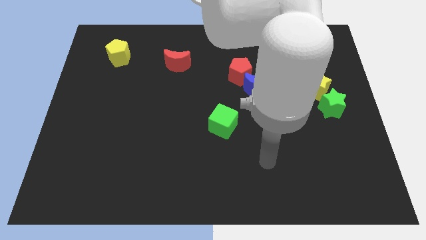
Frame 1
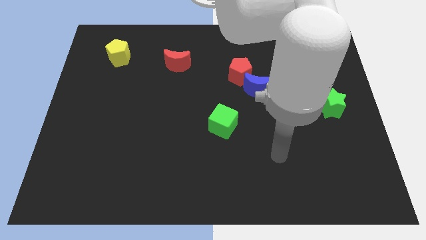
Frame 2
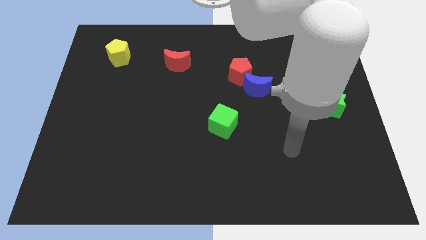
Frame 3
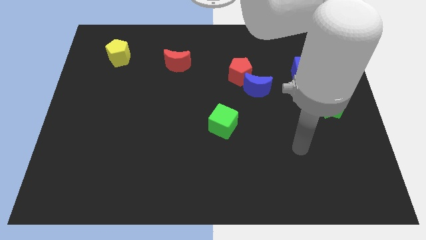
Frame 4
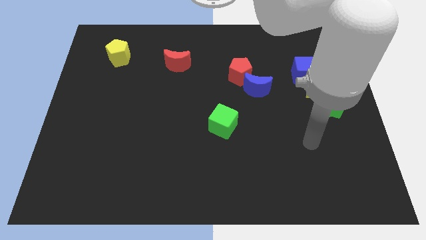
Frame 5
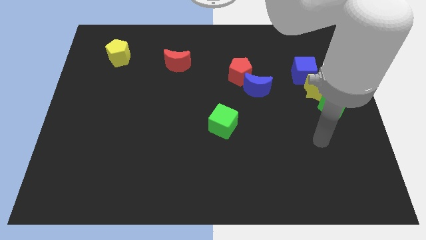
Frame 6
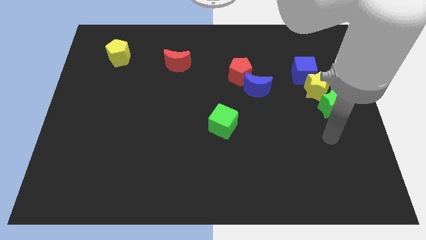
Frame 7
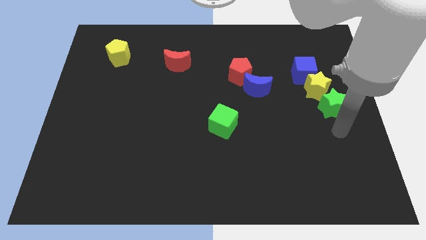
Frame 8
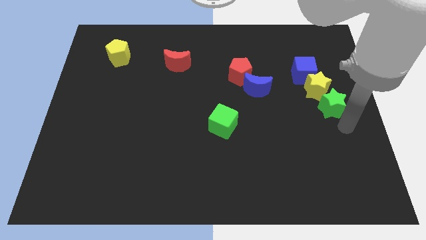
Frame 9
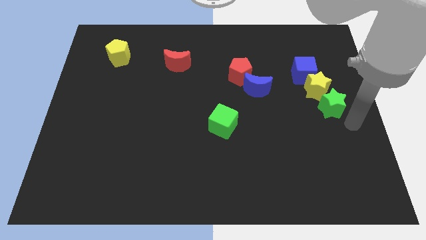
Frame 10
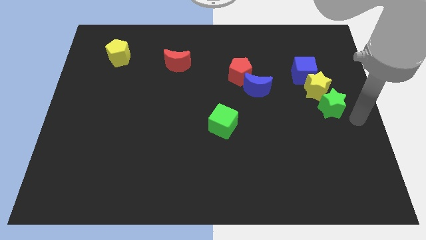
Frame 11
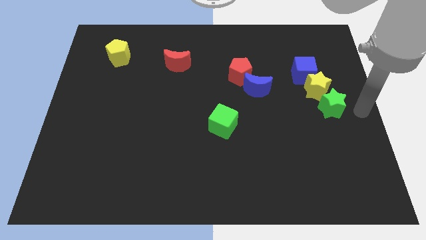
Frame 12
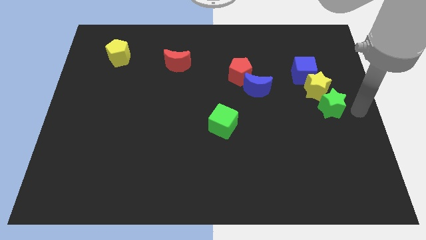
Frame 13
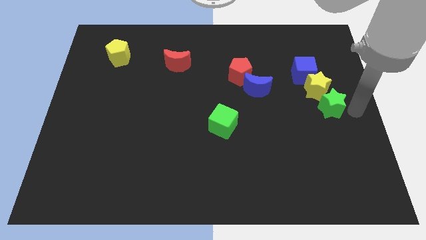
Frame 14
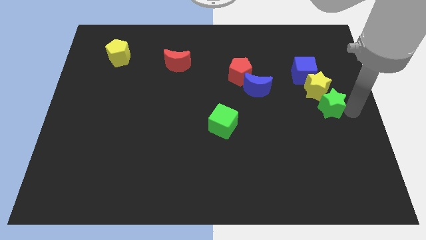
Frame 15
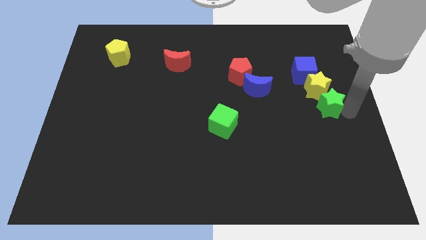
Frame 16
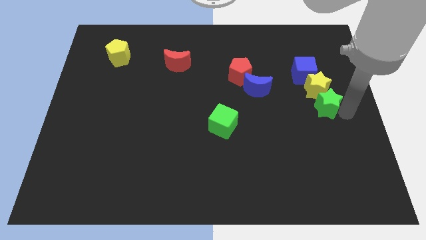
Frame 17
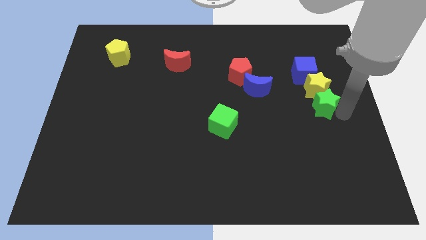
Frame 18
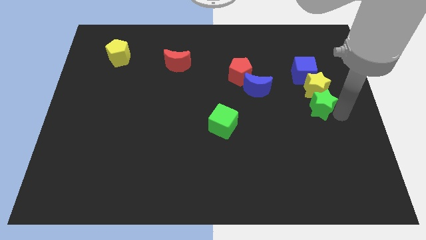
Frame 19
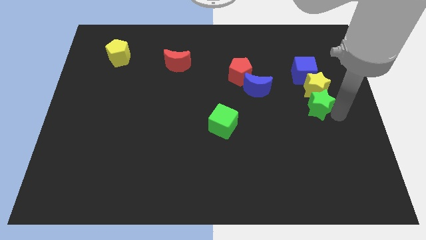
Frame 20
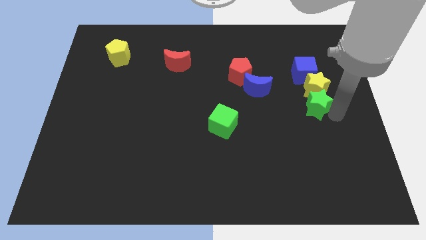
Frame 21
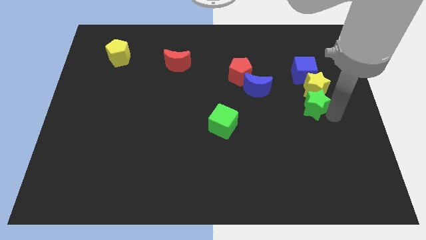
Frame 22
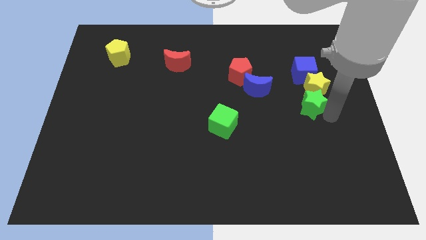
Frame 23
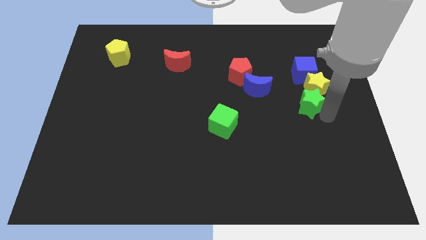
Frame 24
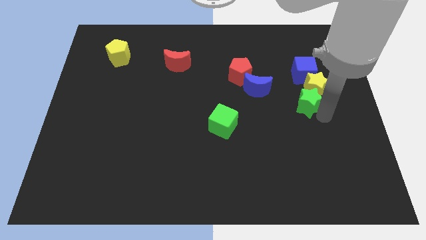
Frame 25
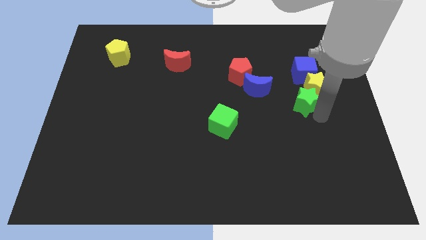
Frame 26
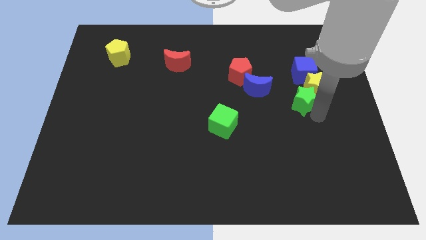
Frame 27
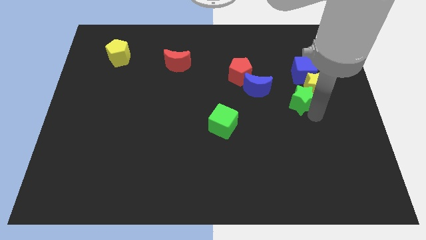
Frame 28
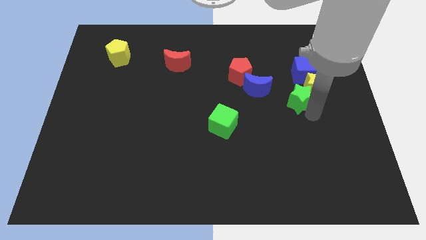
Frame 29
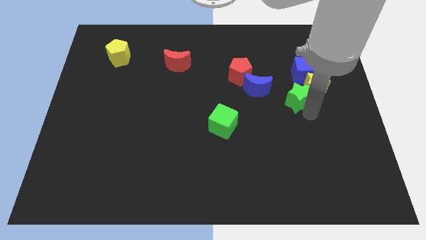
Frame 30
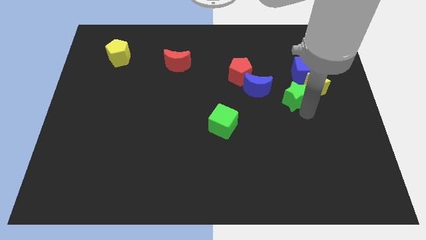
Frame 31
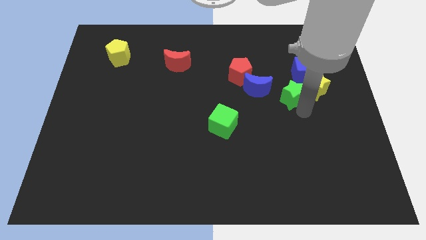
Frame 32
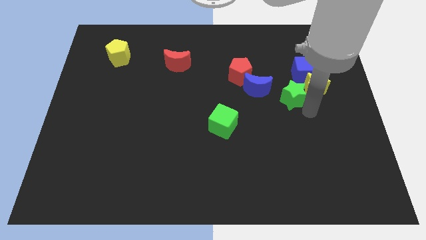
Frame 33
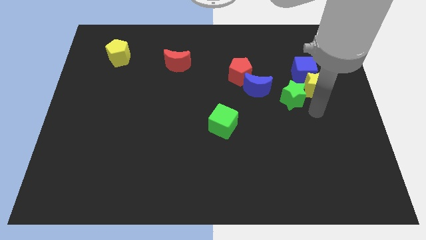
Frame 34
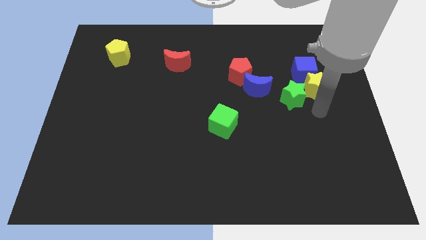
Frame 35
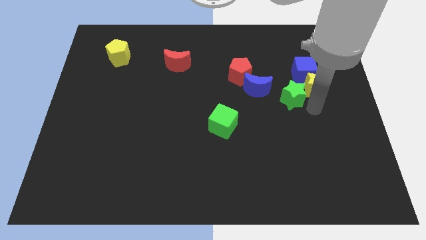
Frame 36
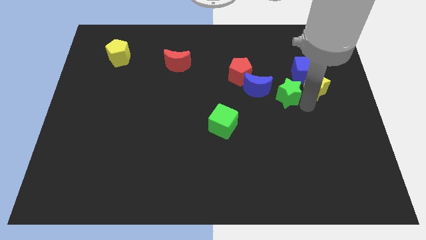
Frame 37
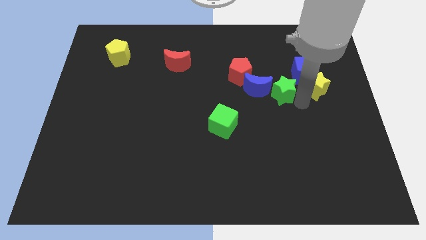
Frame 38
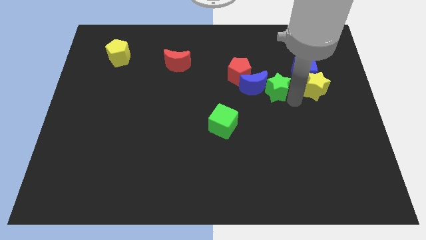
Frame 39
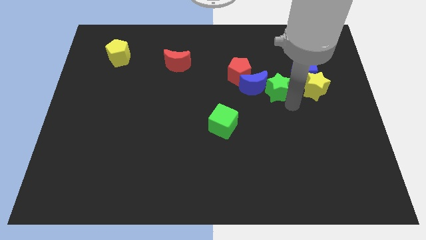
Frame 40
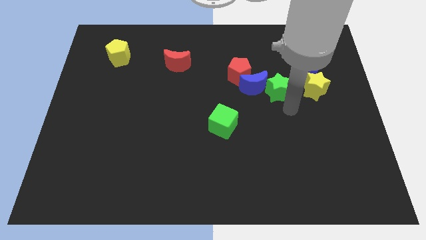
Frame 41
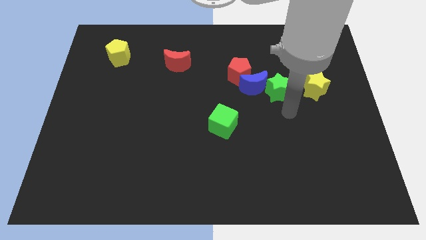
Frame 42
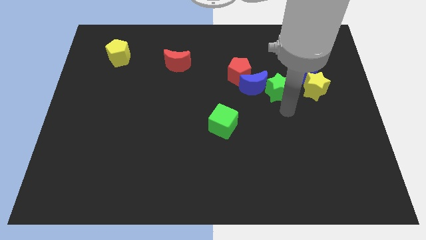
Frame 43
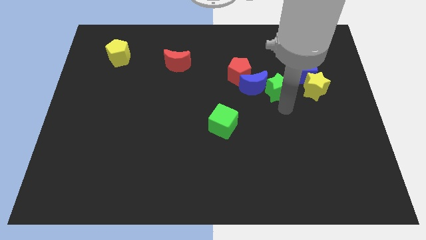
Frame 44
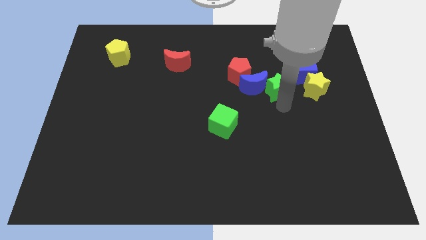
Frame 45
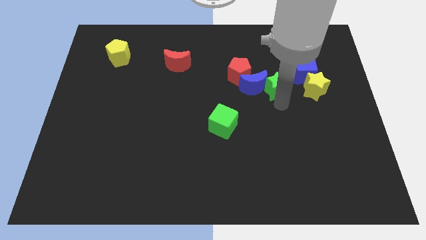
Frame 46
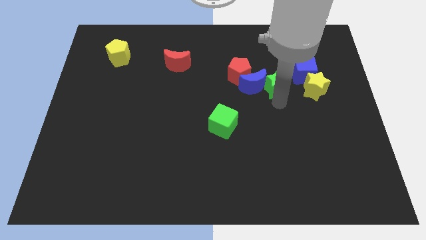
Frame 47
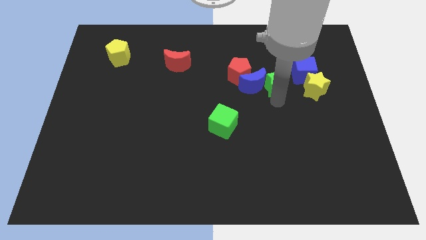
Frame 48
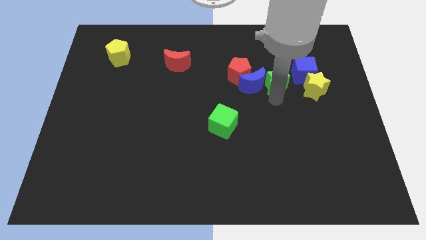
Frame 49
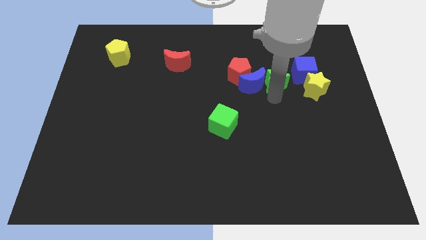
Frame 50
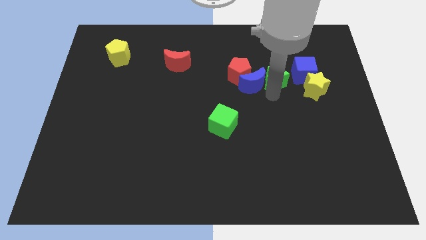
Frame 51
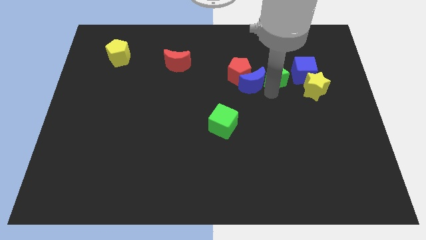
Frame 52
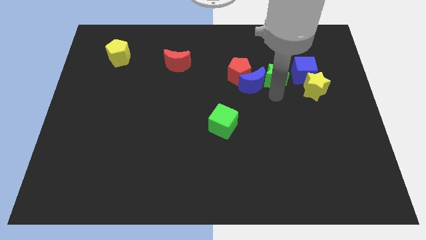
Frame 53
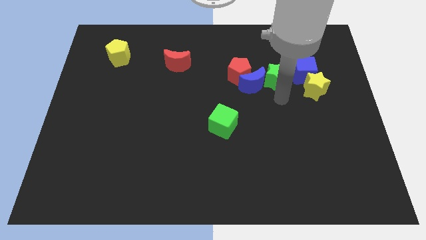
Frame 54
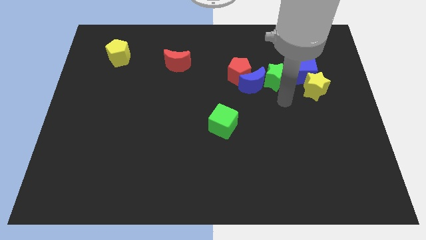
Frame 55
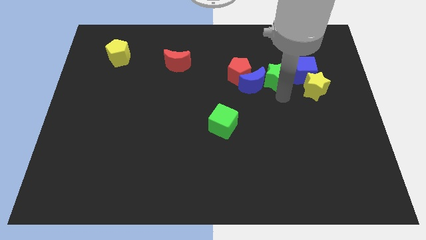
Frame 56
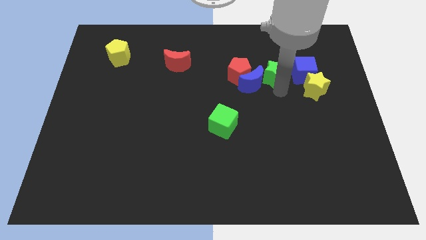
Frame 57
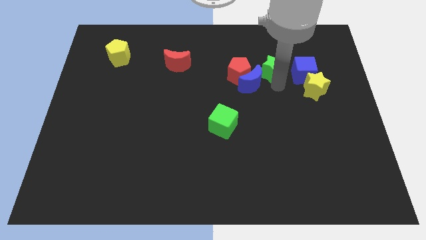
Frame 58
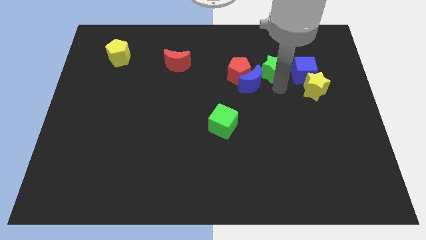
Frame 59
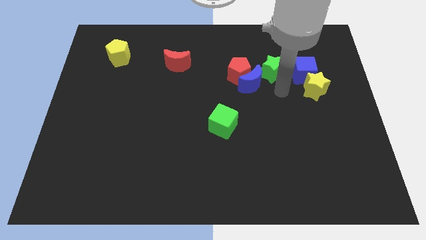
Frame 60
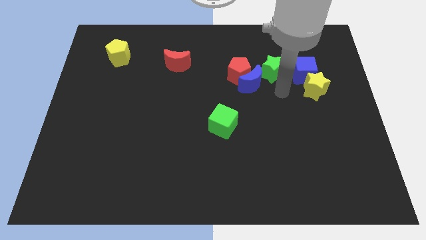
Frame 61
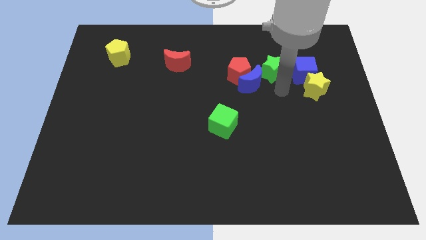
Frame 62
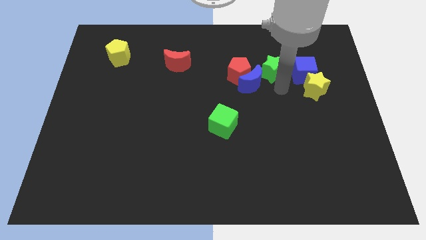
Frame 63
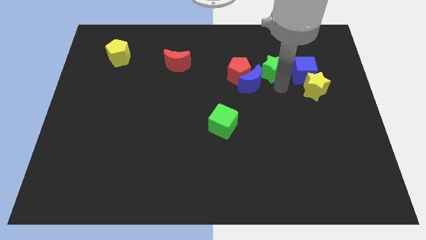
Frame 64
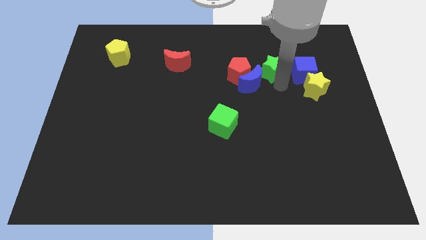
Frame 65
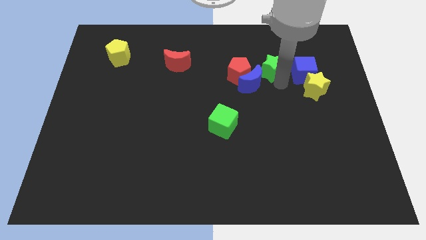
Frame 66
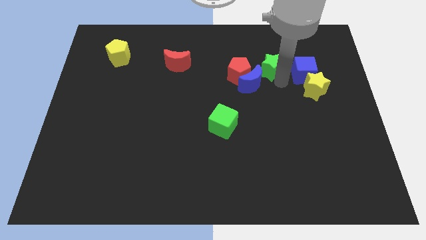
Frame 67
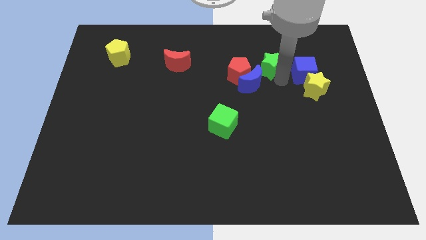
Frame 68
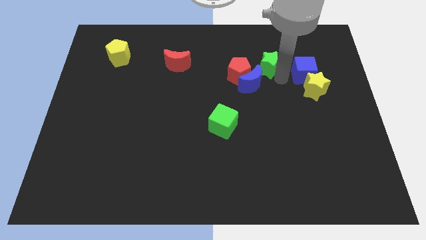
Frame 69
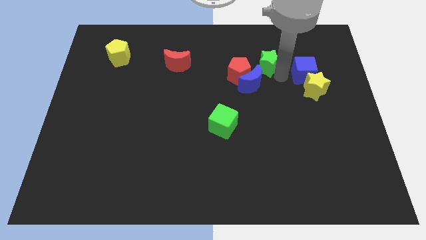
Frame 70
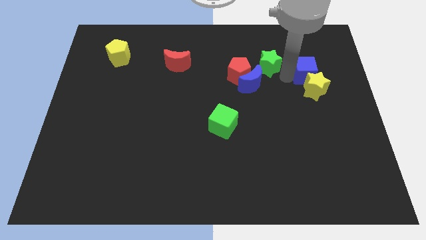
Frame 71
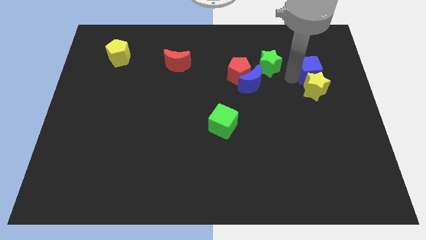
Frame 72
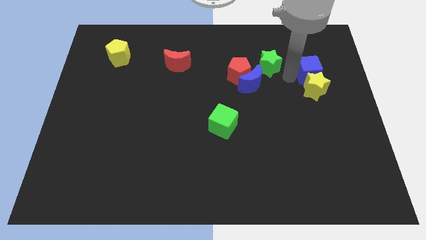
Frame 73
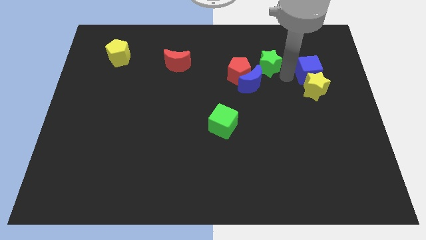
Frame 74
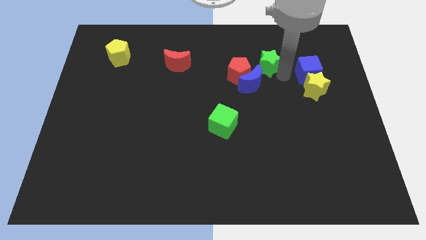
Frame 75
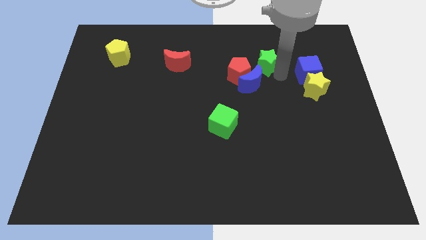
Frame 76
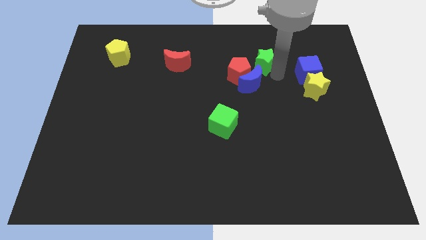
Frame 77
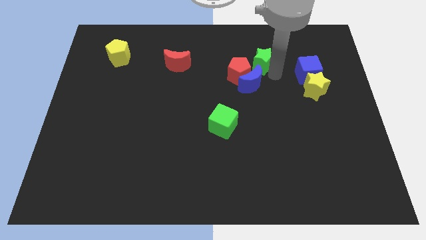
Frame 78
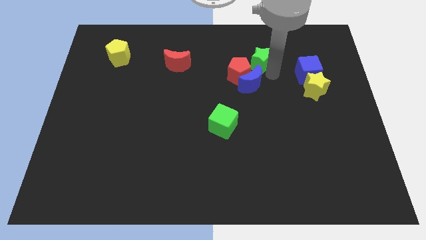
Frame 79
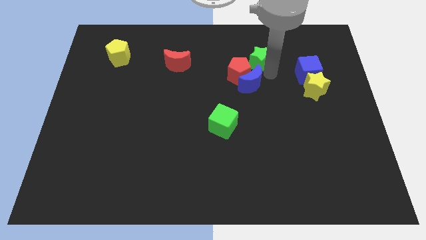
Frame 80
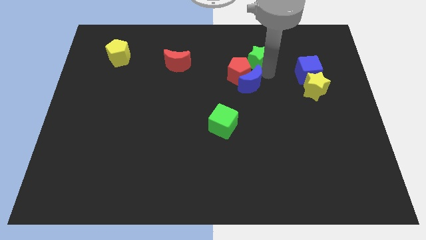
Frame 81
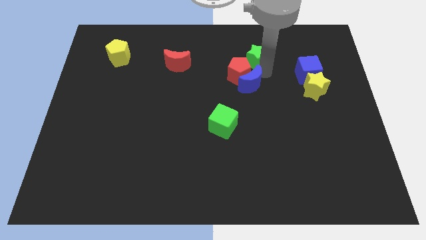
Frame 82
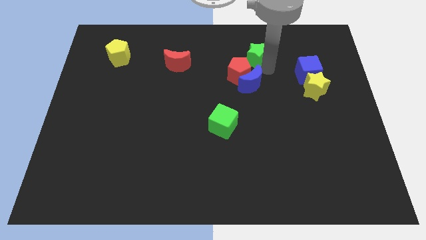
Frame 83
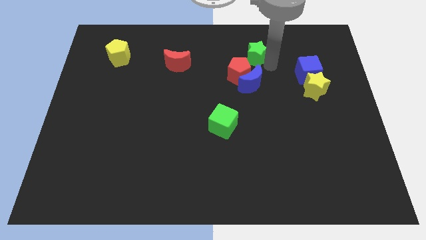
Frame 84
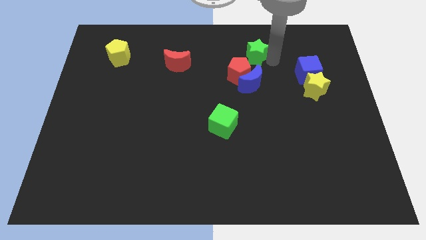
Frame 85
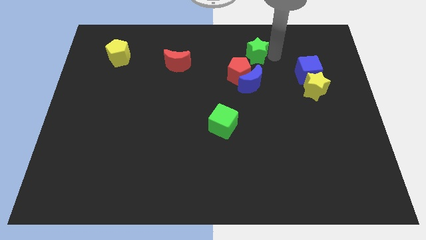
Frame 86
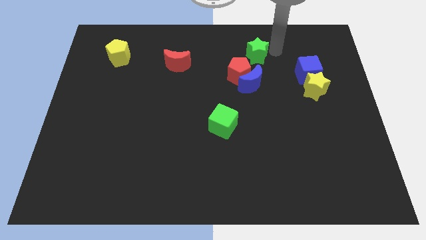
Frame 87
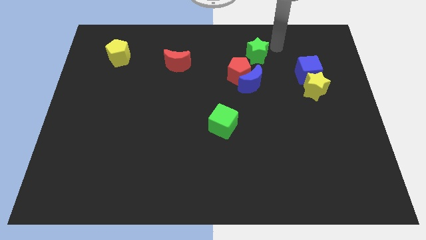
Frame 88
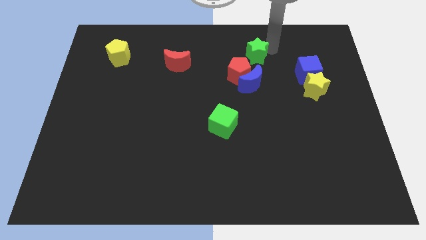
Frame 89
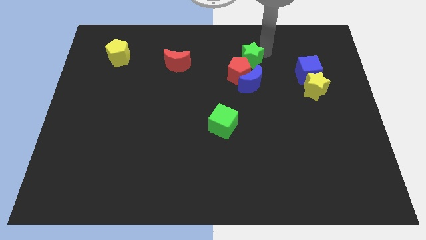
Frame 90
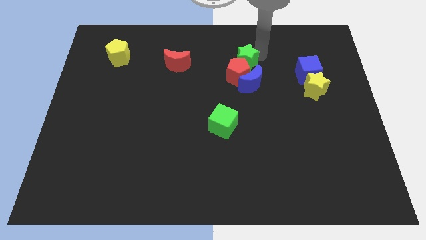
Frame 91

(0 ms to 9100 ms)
put the green star diagonally up and to the left of the blue moon
